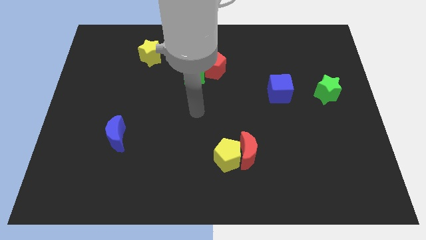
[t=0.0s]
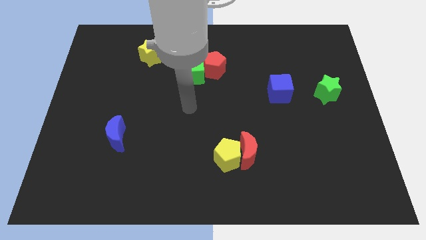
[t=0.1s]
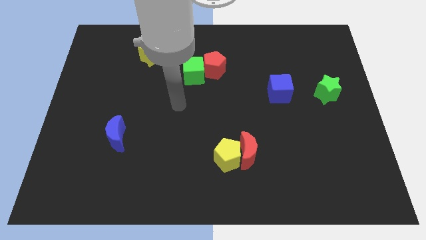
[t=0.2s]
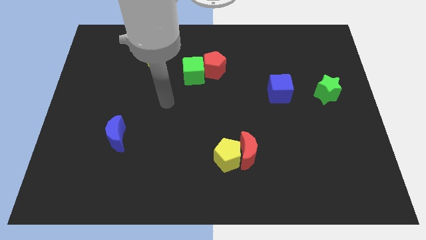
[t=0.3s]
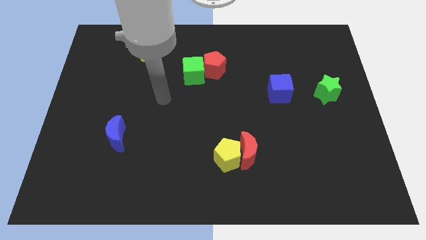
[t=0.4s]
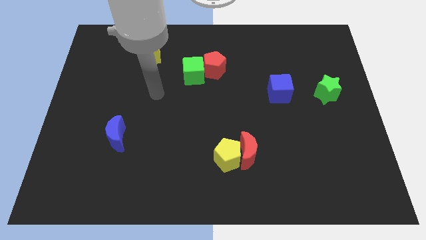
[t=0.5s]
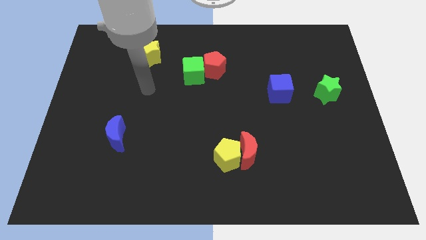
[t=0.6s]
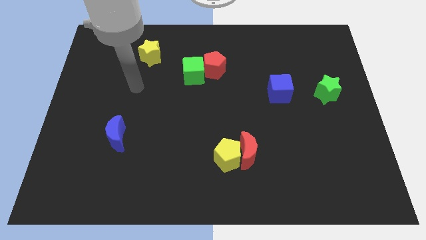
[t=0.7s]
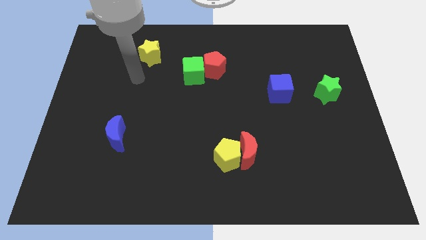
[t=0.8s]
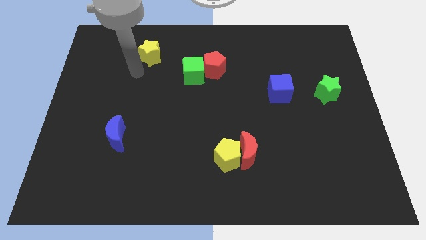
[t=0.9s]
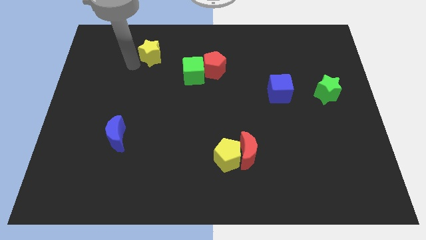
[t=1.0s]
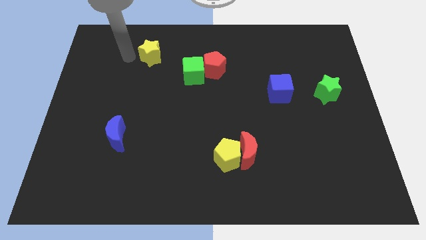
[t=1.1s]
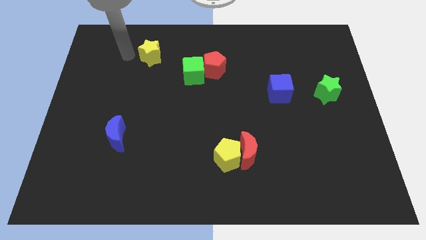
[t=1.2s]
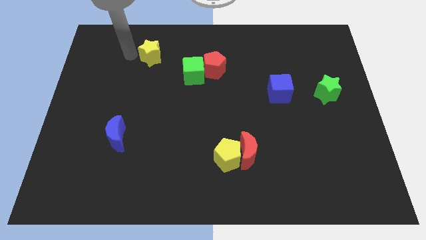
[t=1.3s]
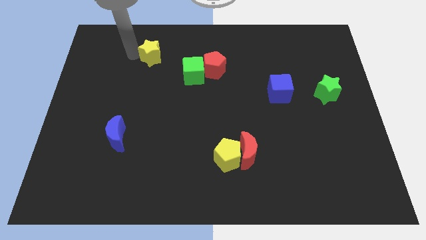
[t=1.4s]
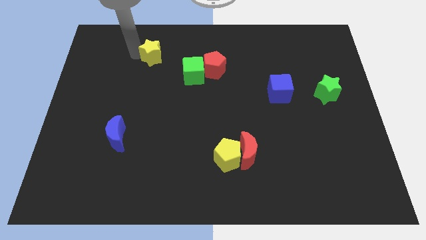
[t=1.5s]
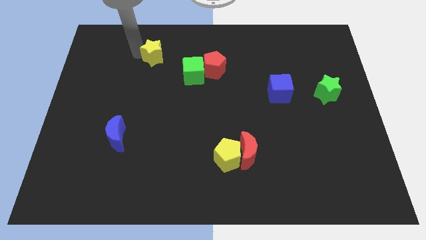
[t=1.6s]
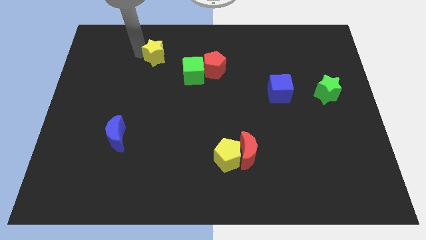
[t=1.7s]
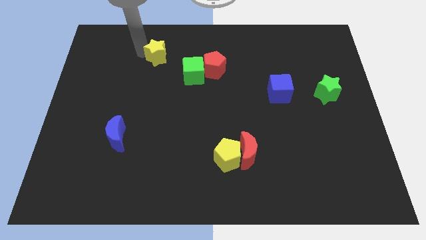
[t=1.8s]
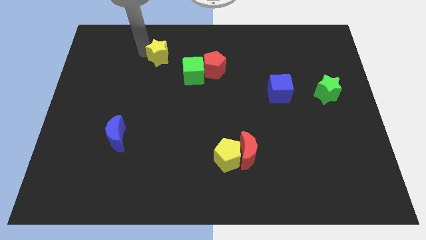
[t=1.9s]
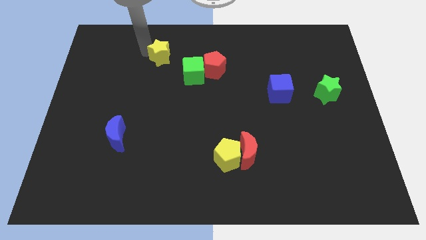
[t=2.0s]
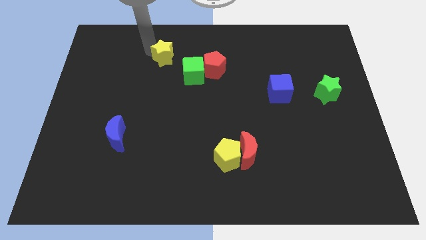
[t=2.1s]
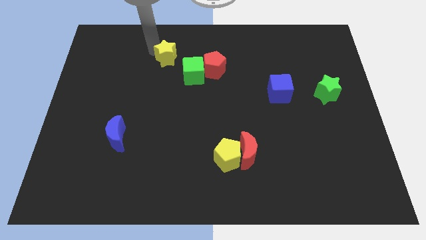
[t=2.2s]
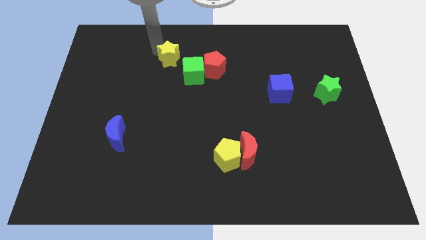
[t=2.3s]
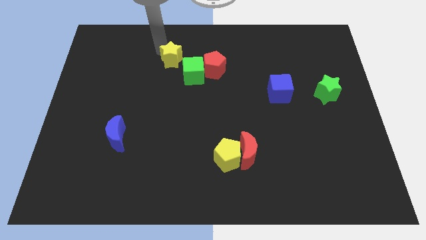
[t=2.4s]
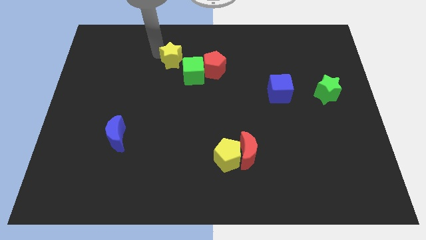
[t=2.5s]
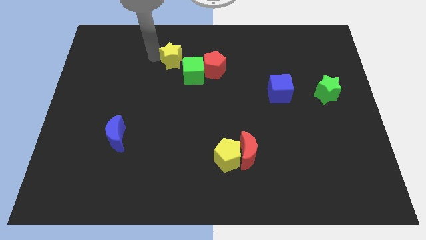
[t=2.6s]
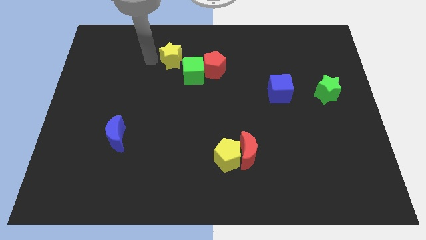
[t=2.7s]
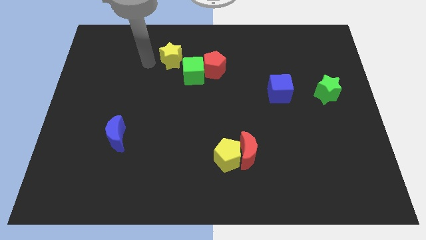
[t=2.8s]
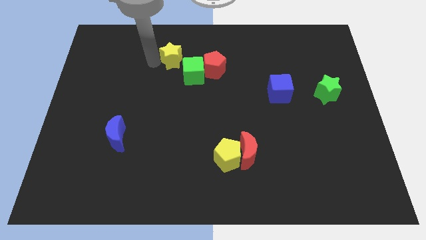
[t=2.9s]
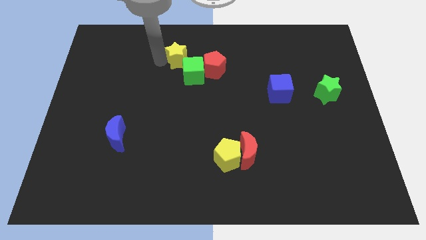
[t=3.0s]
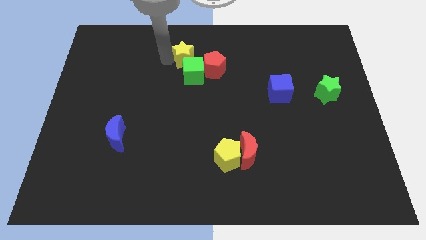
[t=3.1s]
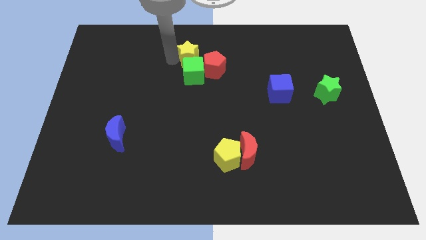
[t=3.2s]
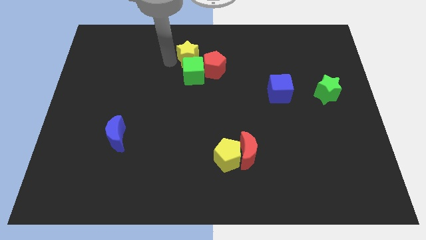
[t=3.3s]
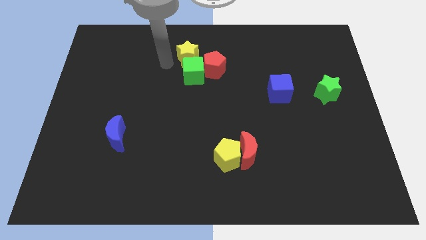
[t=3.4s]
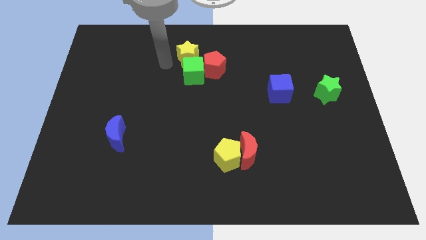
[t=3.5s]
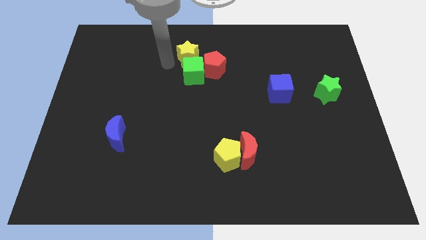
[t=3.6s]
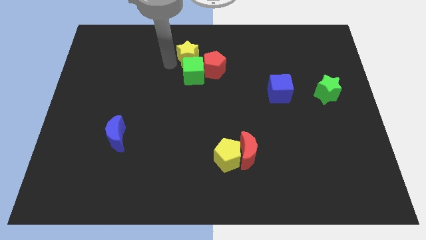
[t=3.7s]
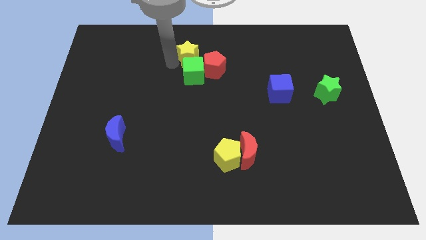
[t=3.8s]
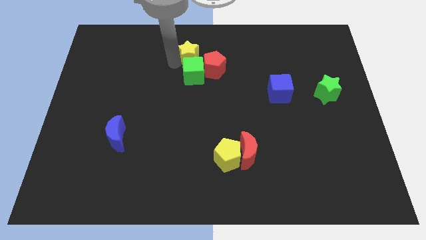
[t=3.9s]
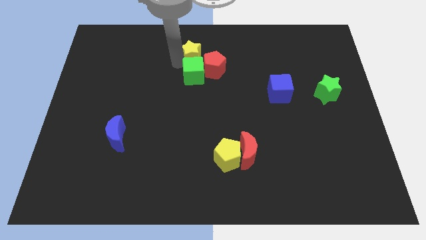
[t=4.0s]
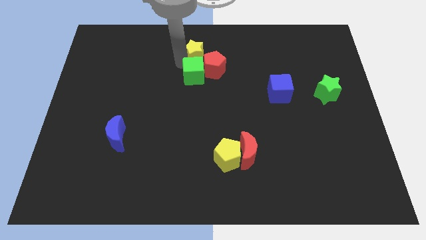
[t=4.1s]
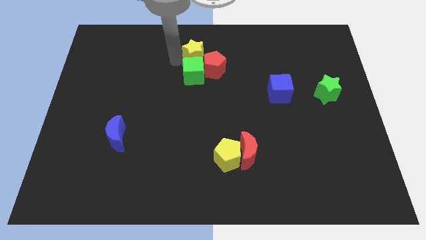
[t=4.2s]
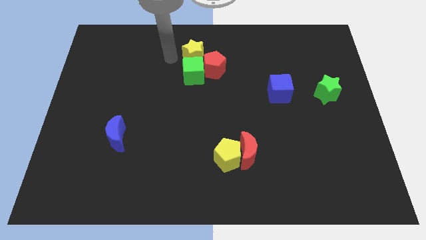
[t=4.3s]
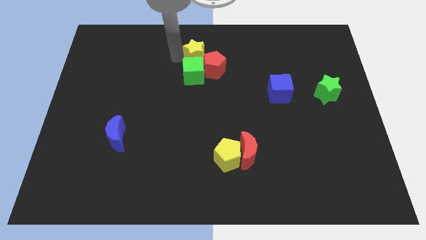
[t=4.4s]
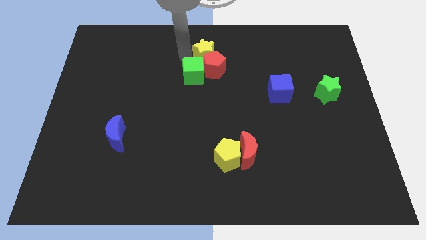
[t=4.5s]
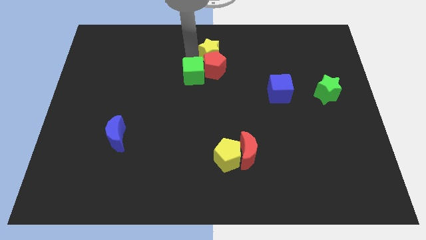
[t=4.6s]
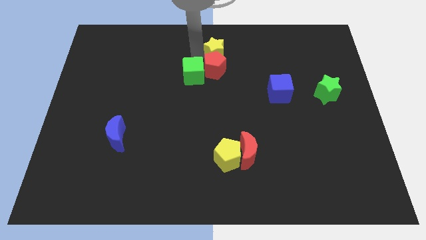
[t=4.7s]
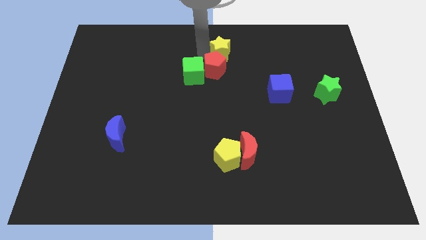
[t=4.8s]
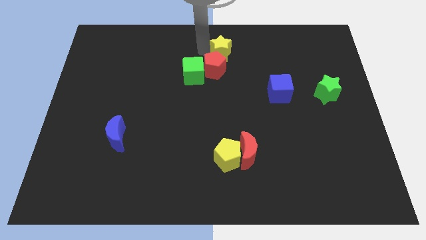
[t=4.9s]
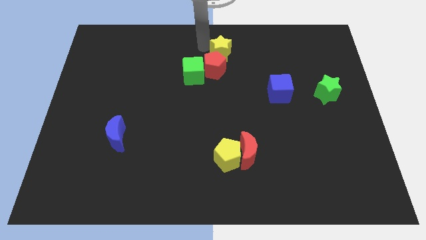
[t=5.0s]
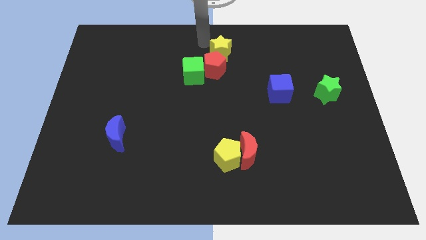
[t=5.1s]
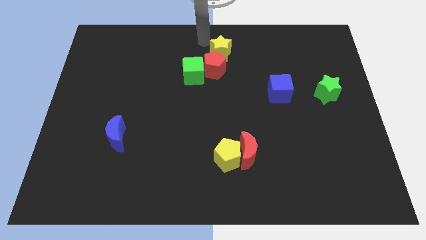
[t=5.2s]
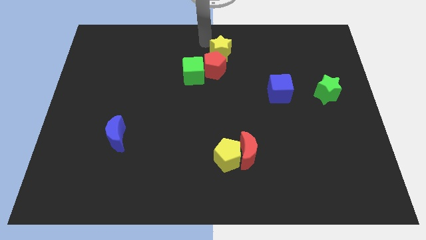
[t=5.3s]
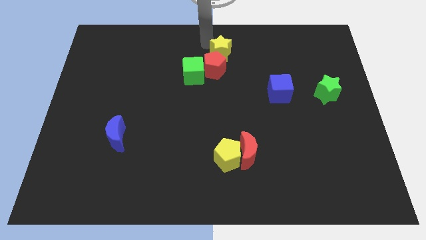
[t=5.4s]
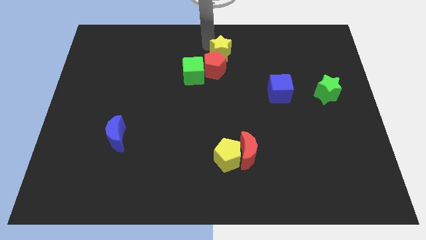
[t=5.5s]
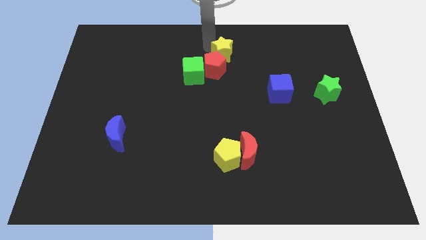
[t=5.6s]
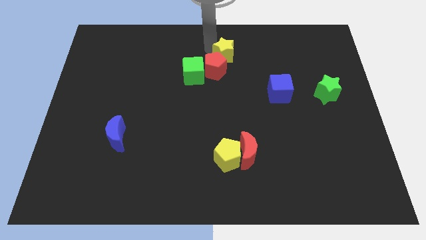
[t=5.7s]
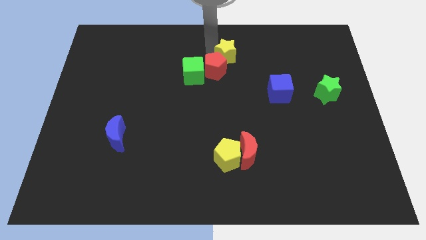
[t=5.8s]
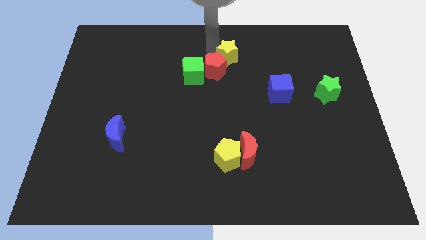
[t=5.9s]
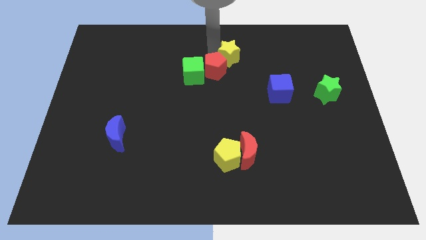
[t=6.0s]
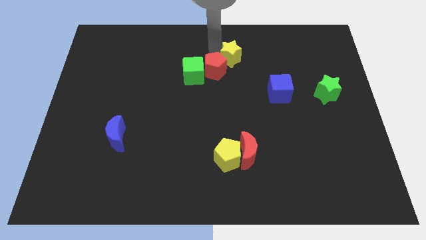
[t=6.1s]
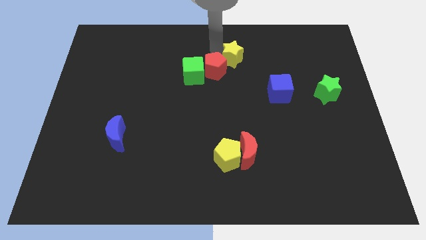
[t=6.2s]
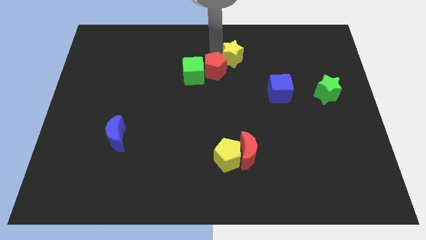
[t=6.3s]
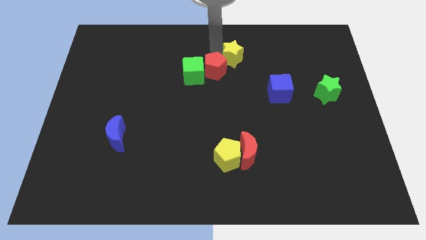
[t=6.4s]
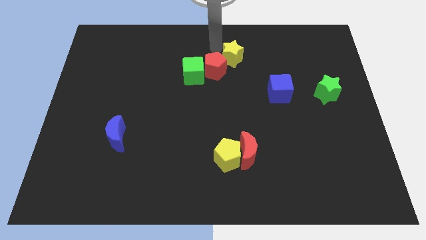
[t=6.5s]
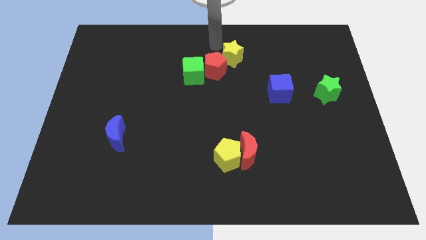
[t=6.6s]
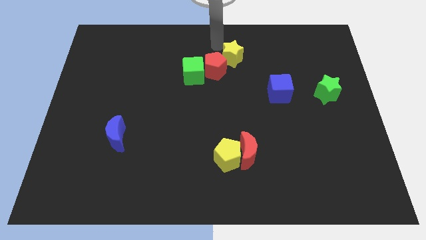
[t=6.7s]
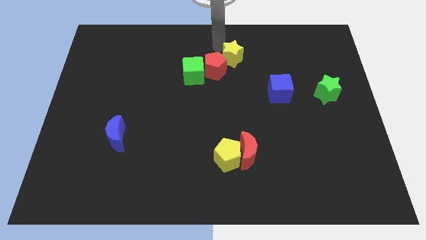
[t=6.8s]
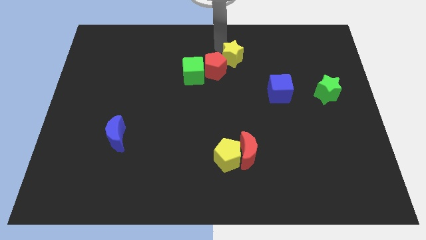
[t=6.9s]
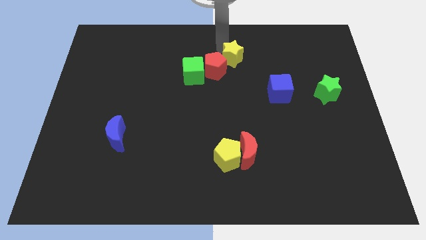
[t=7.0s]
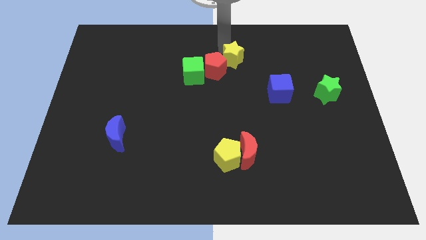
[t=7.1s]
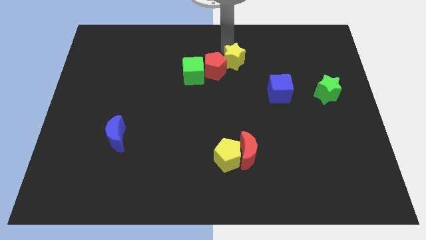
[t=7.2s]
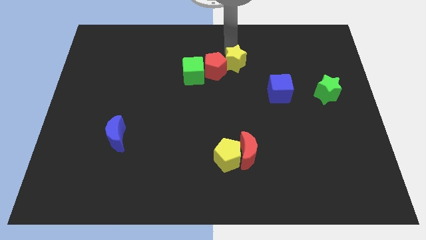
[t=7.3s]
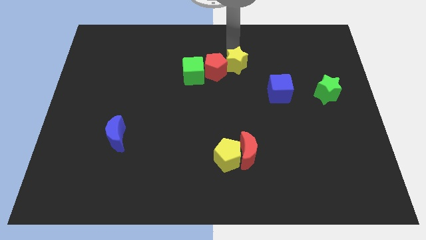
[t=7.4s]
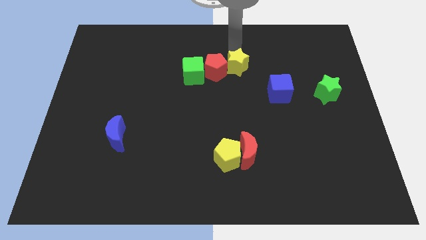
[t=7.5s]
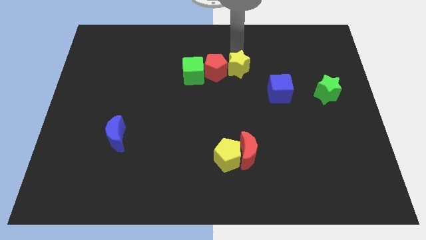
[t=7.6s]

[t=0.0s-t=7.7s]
put the yellow star to the top left of the blue cube
